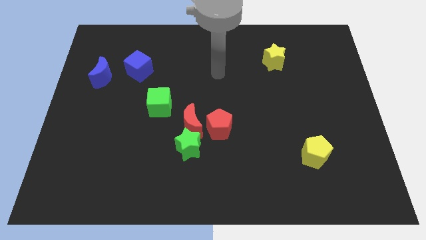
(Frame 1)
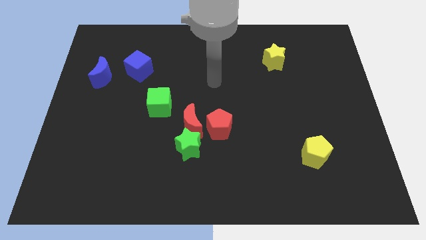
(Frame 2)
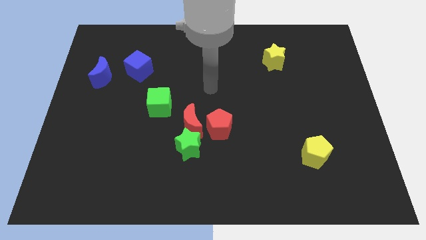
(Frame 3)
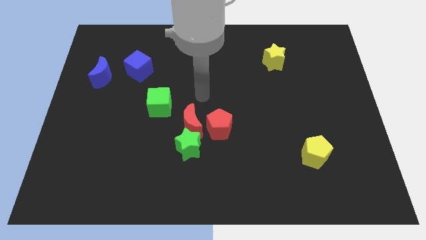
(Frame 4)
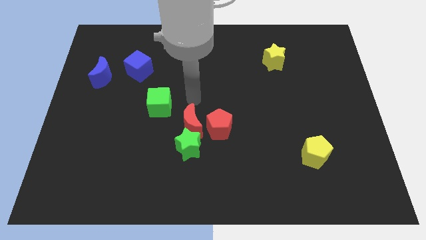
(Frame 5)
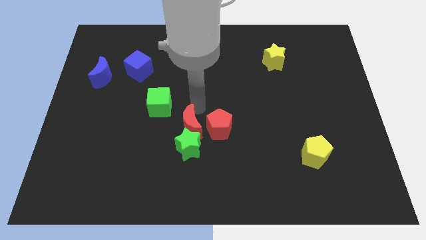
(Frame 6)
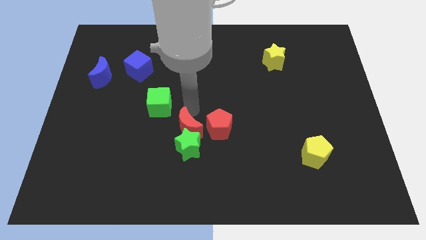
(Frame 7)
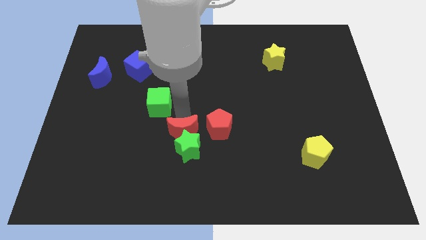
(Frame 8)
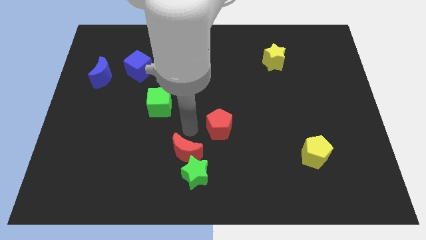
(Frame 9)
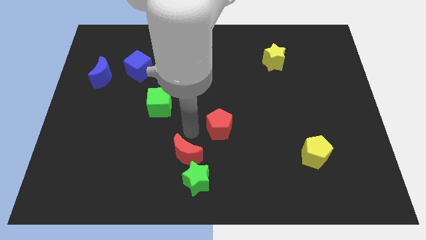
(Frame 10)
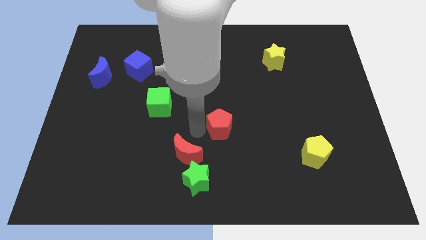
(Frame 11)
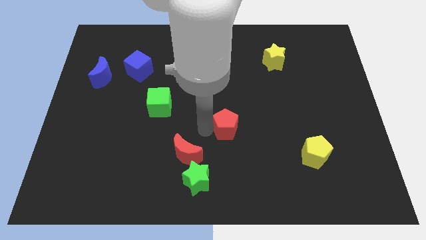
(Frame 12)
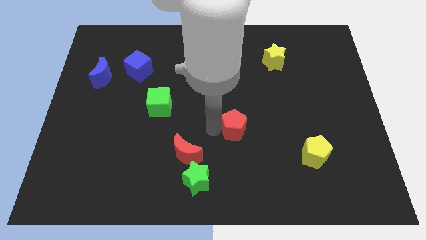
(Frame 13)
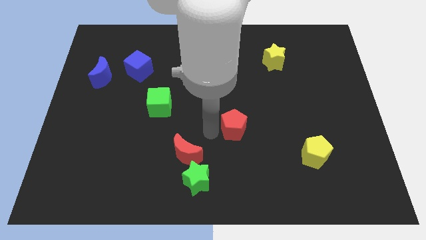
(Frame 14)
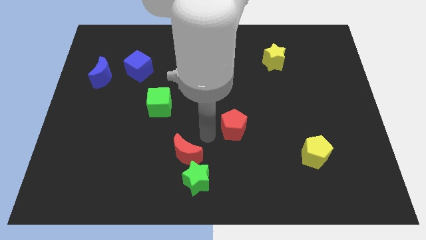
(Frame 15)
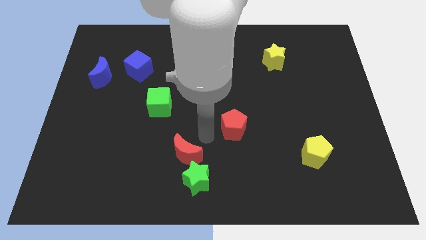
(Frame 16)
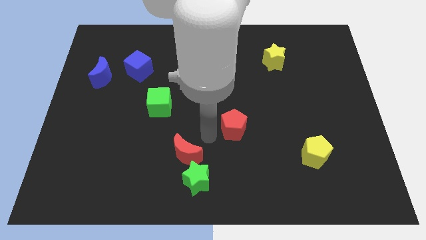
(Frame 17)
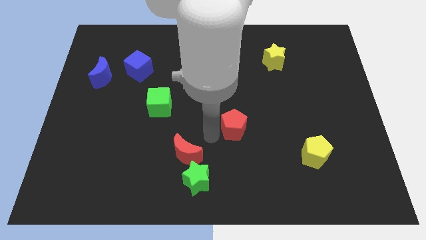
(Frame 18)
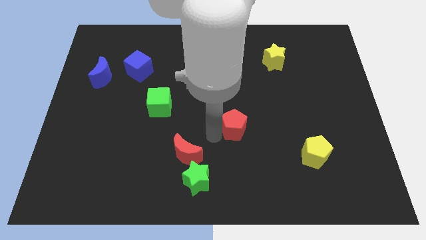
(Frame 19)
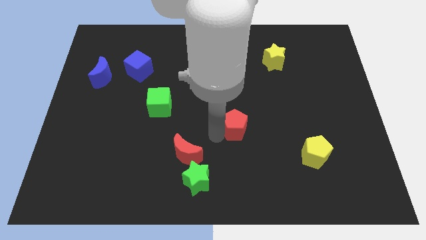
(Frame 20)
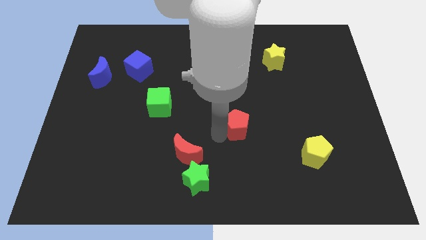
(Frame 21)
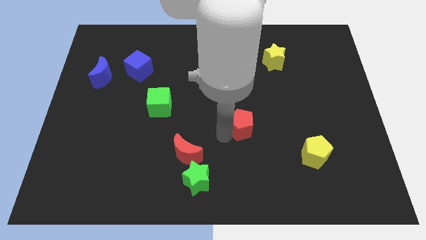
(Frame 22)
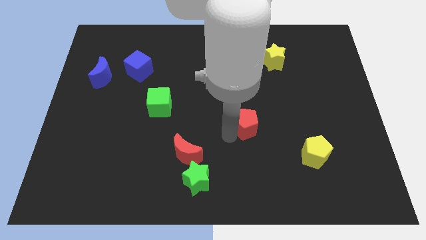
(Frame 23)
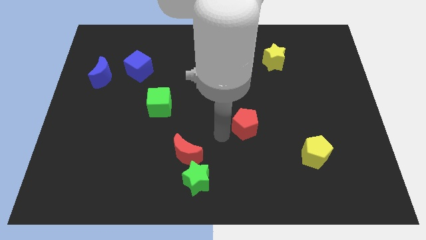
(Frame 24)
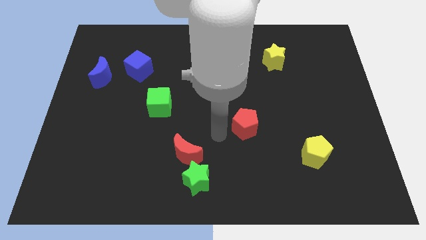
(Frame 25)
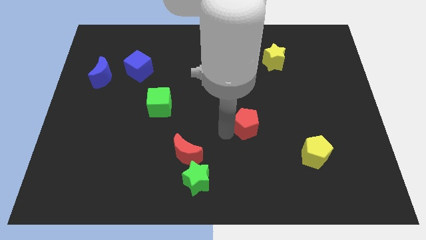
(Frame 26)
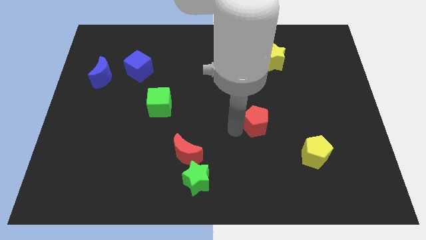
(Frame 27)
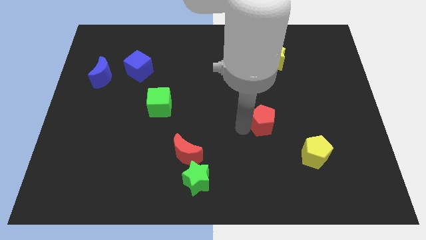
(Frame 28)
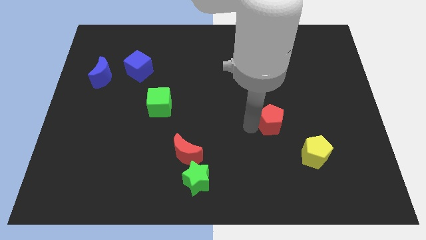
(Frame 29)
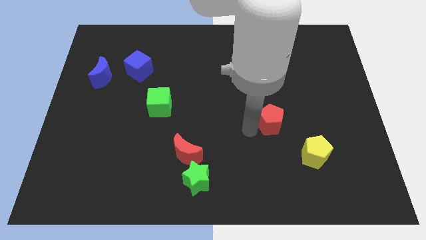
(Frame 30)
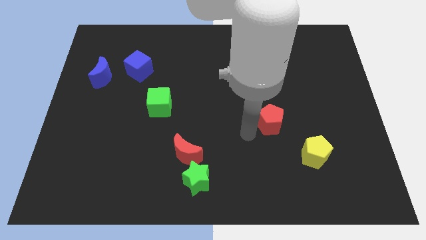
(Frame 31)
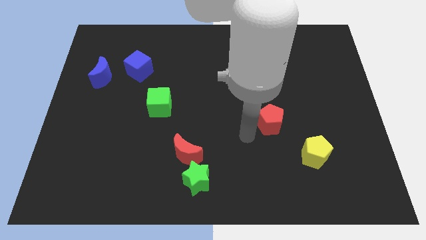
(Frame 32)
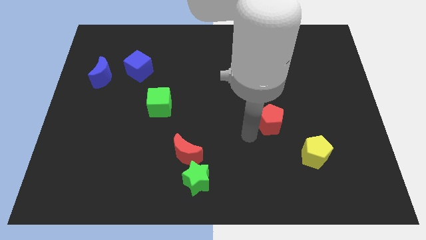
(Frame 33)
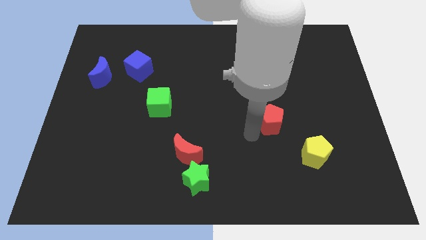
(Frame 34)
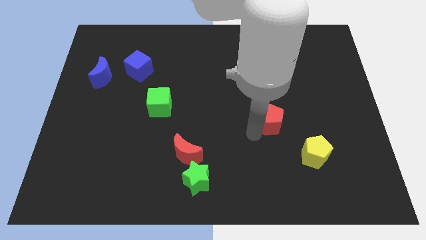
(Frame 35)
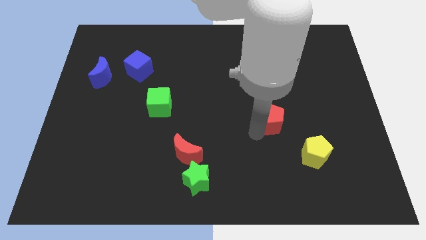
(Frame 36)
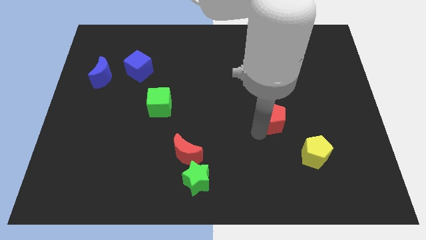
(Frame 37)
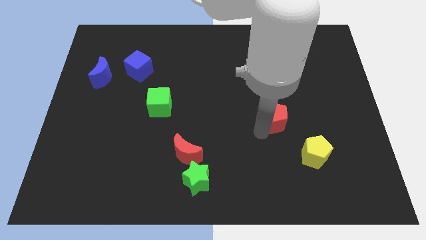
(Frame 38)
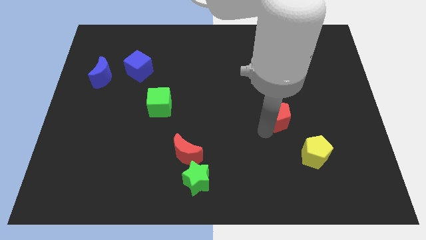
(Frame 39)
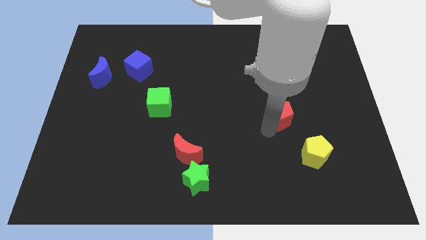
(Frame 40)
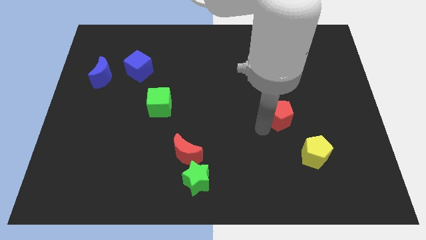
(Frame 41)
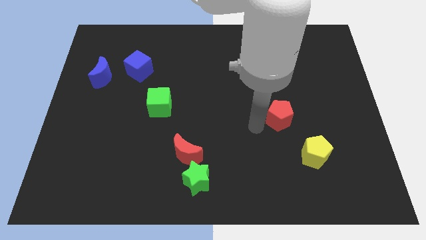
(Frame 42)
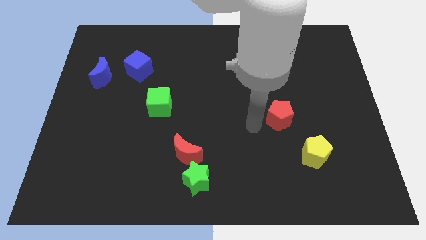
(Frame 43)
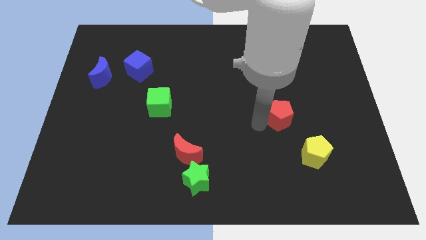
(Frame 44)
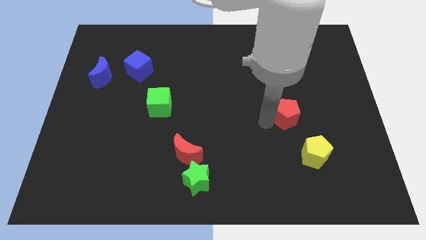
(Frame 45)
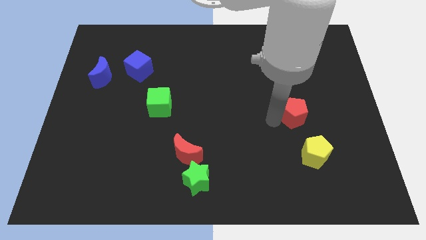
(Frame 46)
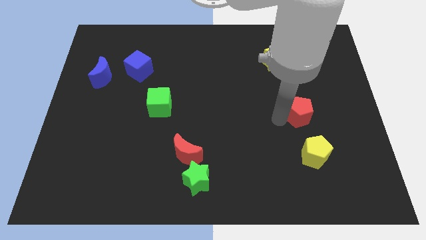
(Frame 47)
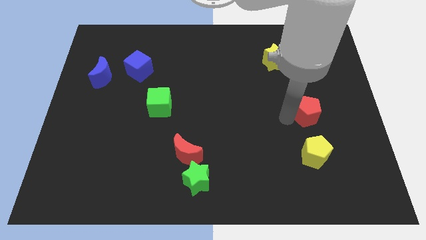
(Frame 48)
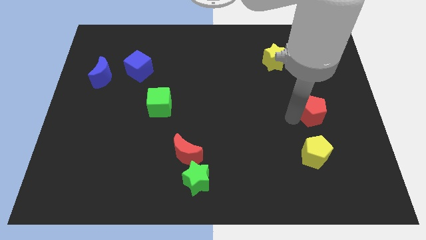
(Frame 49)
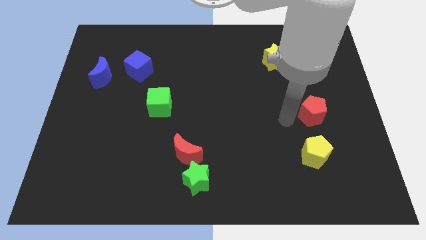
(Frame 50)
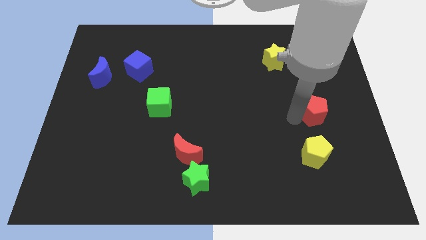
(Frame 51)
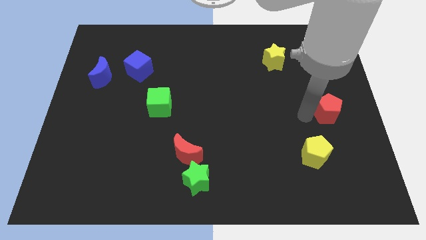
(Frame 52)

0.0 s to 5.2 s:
move the red pentagon to the right side of the board
